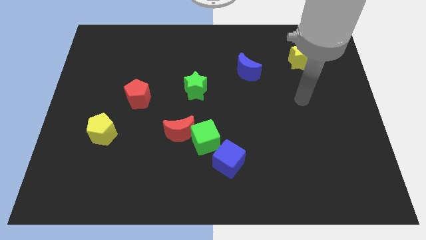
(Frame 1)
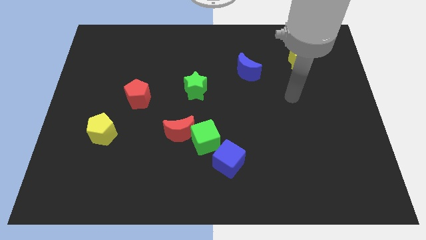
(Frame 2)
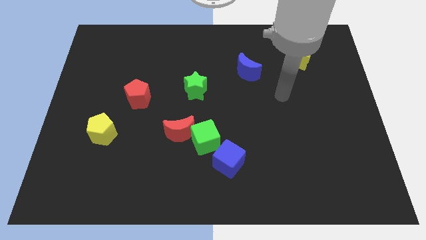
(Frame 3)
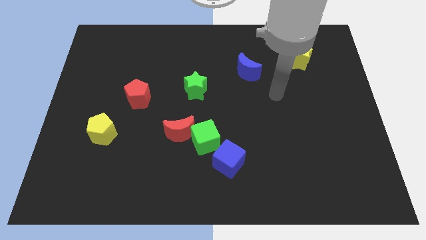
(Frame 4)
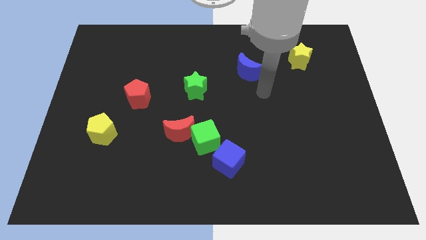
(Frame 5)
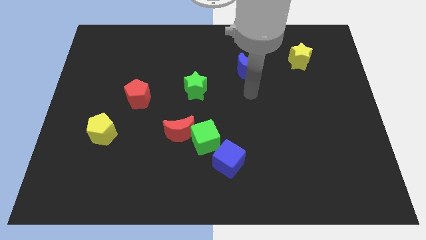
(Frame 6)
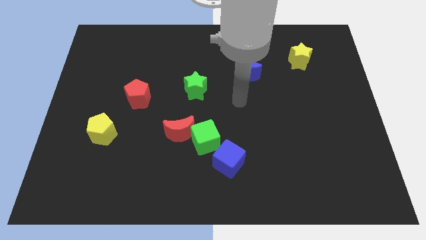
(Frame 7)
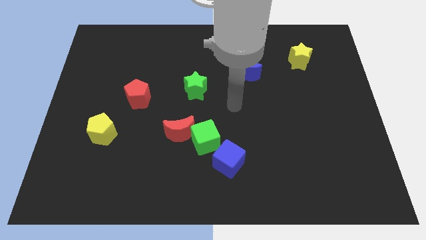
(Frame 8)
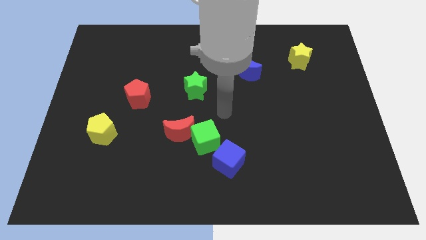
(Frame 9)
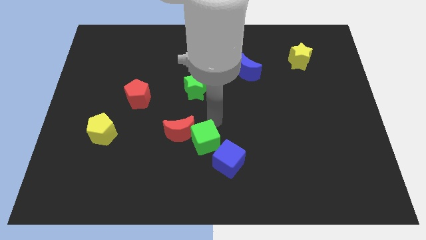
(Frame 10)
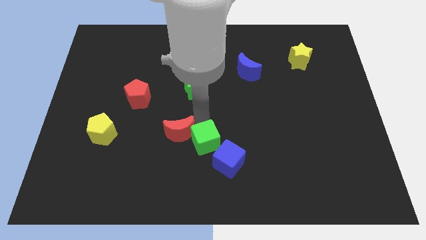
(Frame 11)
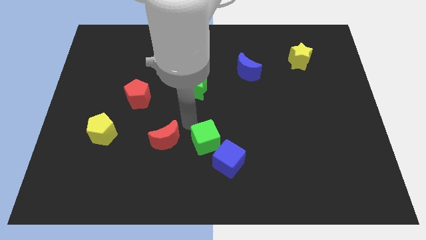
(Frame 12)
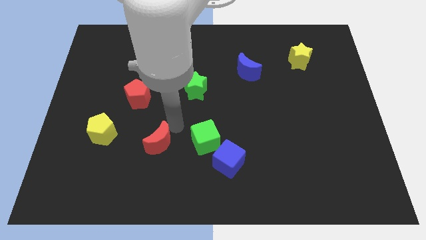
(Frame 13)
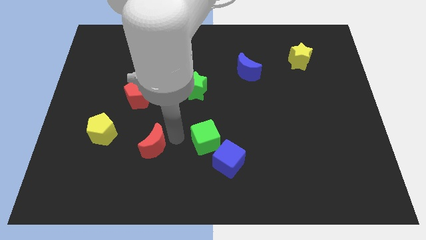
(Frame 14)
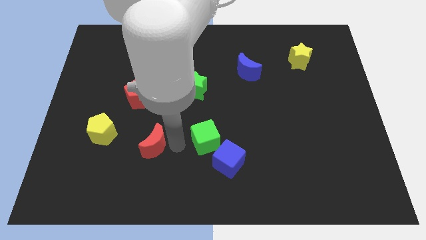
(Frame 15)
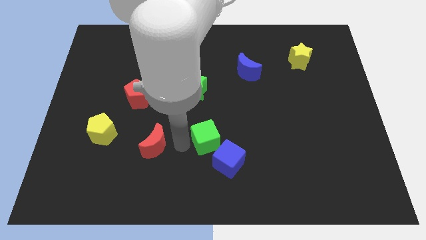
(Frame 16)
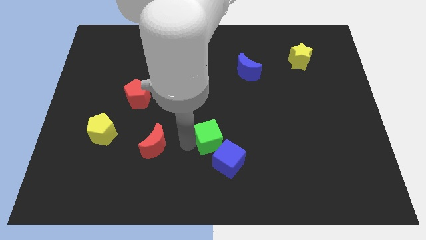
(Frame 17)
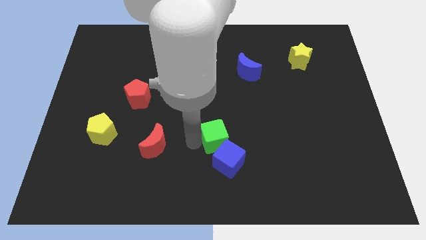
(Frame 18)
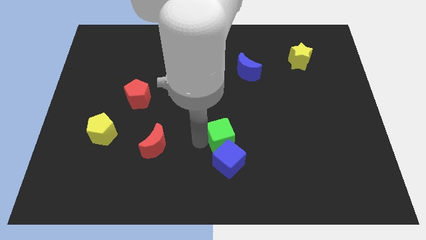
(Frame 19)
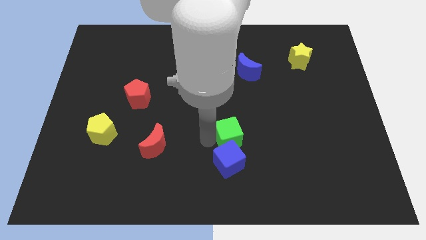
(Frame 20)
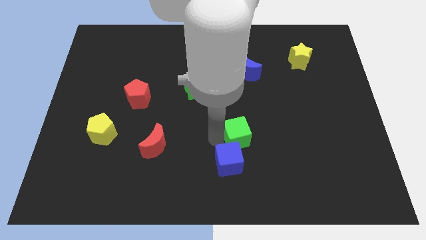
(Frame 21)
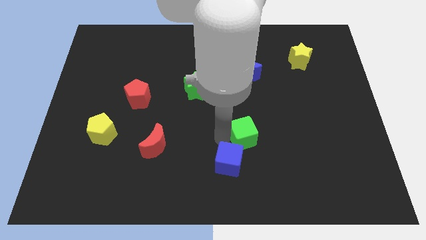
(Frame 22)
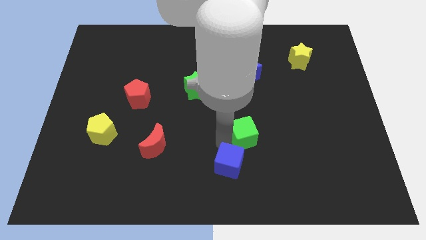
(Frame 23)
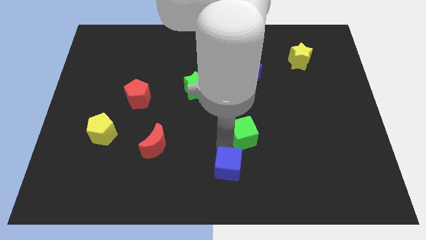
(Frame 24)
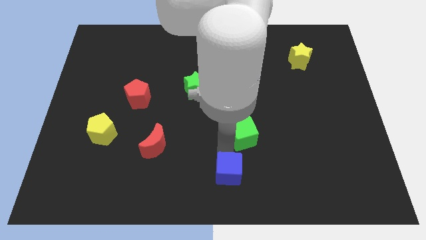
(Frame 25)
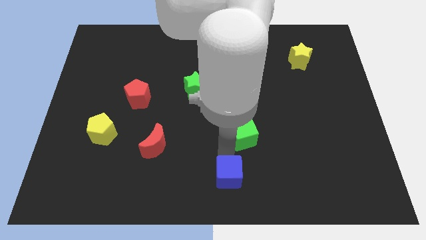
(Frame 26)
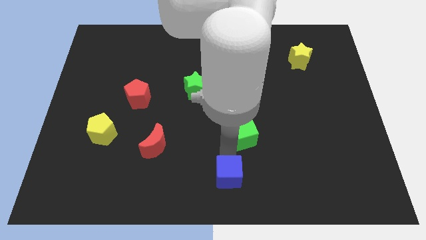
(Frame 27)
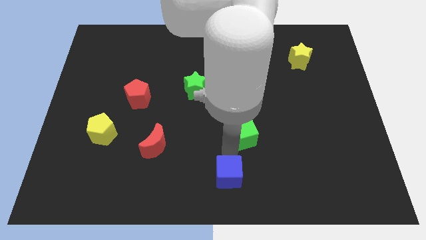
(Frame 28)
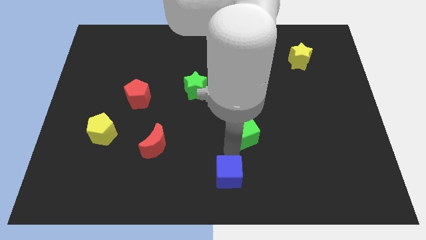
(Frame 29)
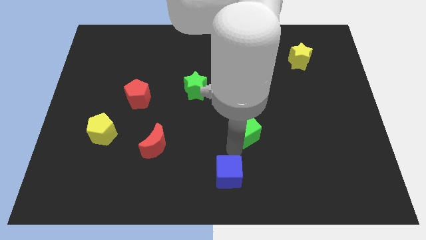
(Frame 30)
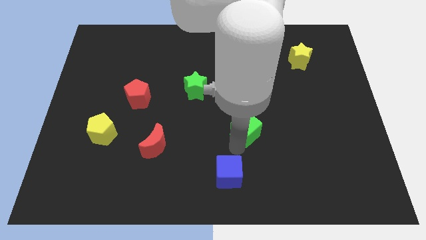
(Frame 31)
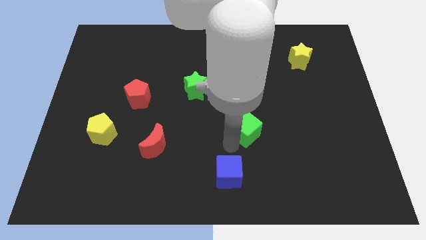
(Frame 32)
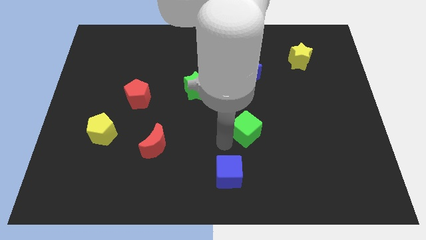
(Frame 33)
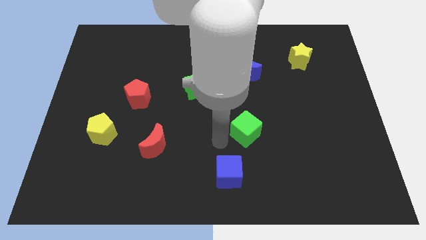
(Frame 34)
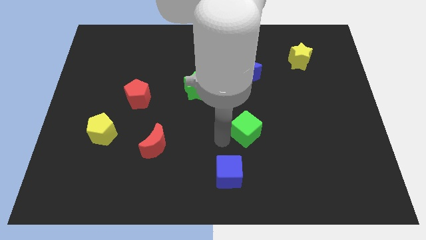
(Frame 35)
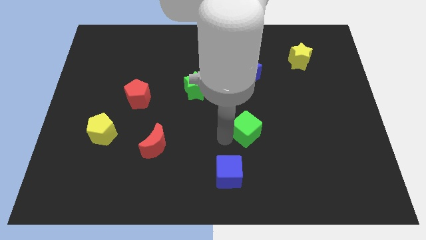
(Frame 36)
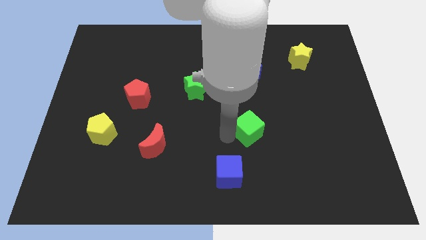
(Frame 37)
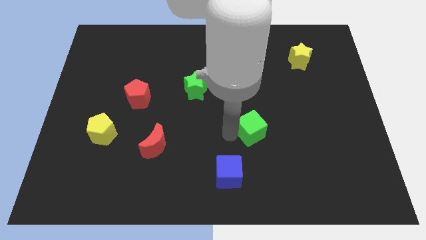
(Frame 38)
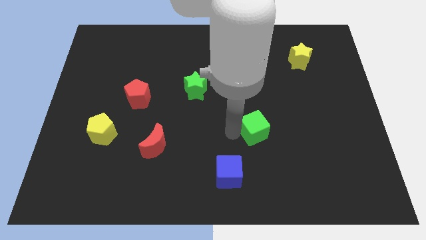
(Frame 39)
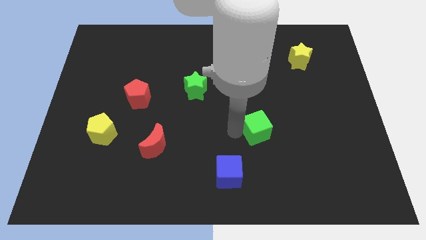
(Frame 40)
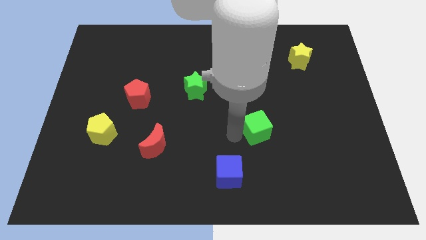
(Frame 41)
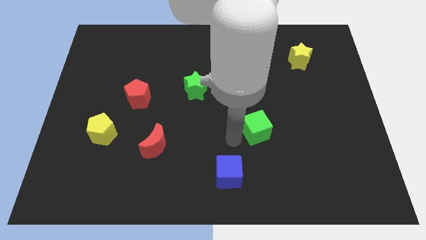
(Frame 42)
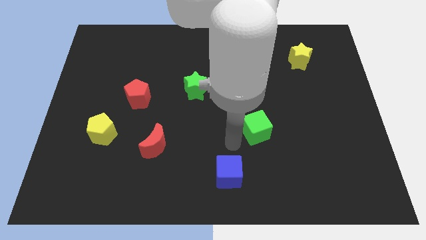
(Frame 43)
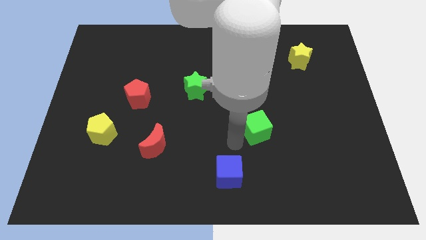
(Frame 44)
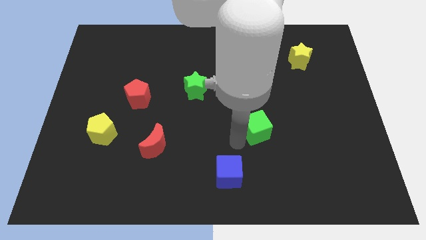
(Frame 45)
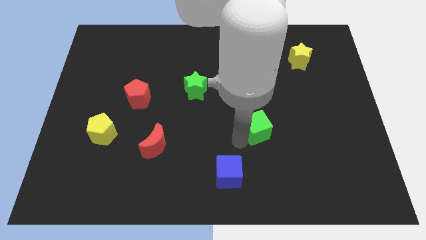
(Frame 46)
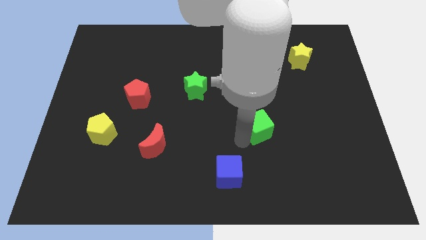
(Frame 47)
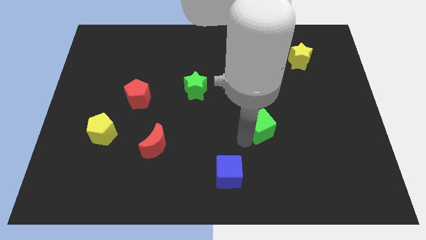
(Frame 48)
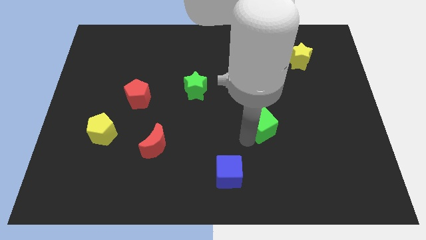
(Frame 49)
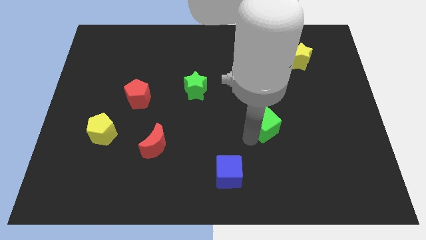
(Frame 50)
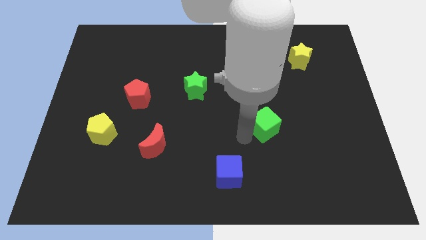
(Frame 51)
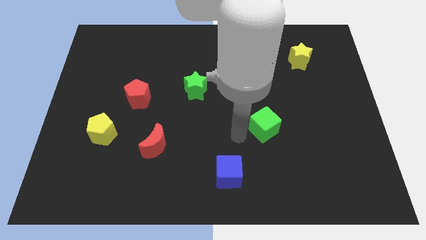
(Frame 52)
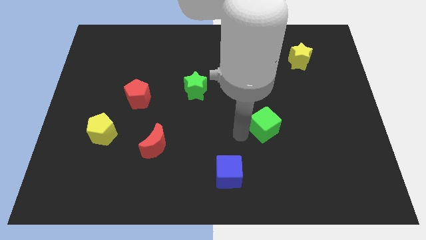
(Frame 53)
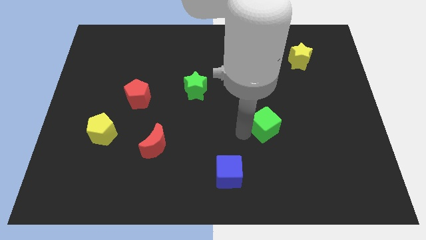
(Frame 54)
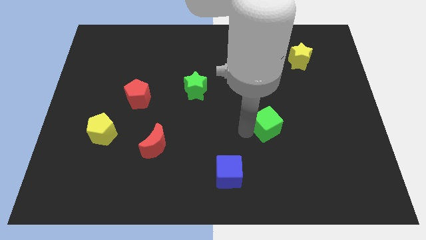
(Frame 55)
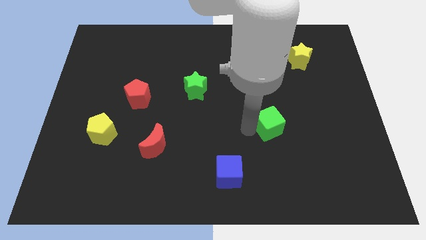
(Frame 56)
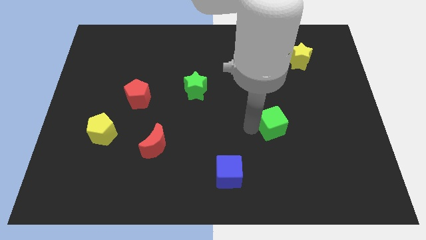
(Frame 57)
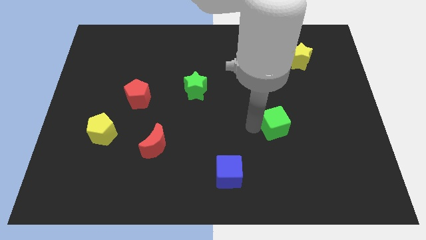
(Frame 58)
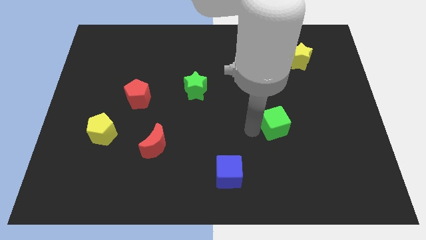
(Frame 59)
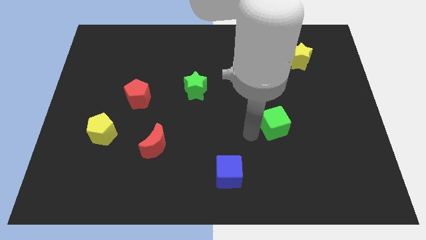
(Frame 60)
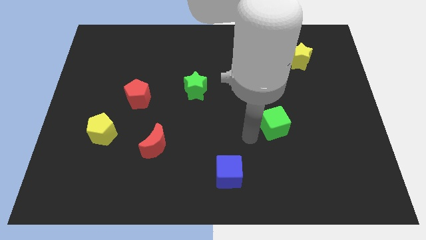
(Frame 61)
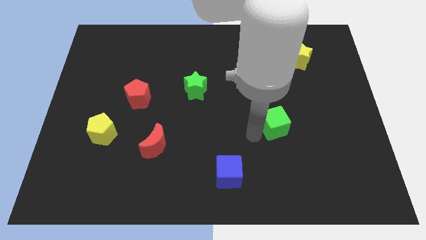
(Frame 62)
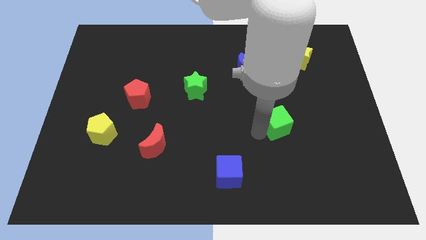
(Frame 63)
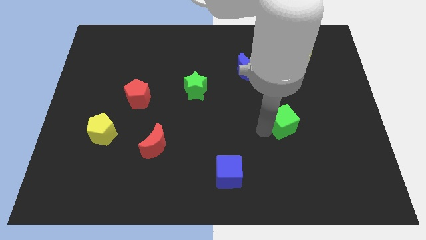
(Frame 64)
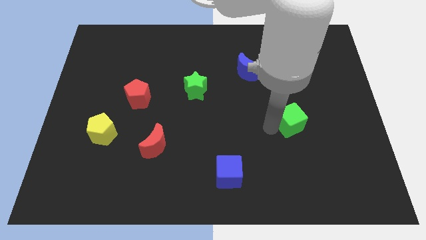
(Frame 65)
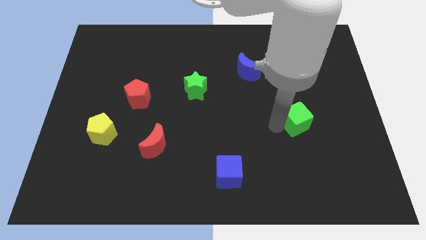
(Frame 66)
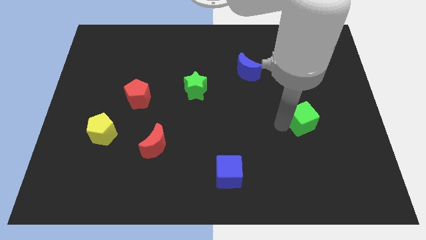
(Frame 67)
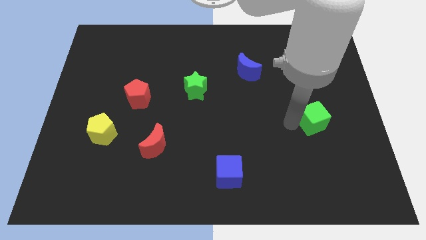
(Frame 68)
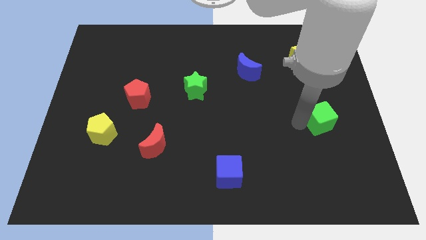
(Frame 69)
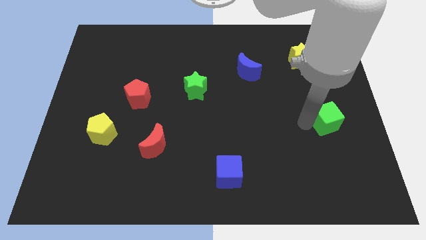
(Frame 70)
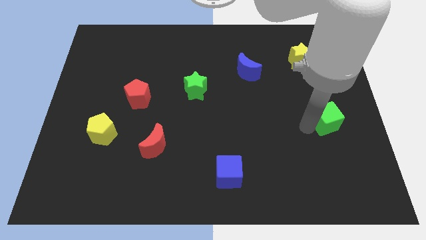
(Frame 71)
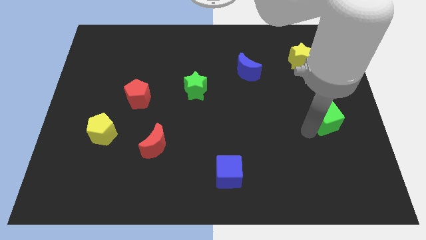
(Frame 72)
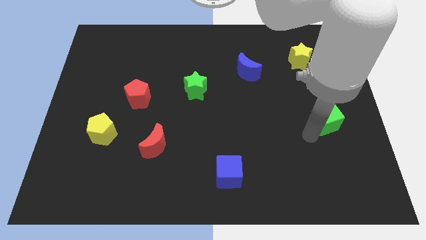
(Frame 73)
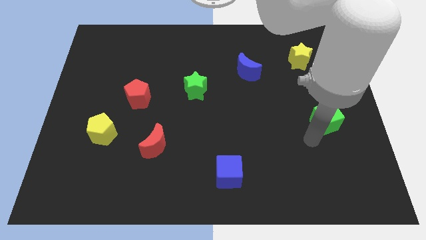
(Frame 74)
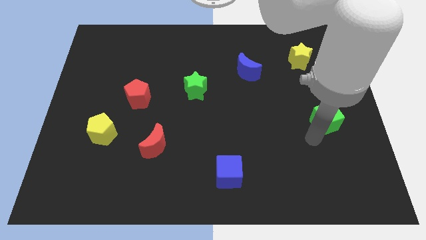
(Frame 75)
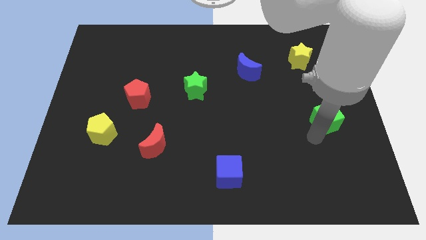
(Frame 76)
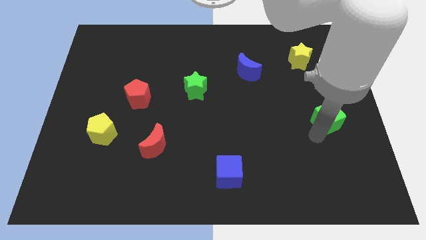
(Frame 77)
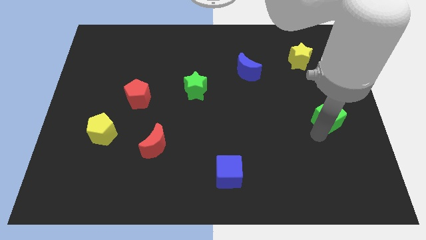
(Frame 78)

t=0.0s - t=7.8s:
slide the green cube to the right side of the board
